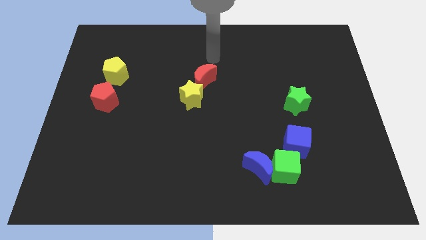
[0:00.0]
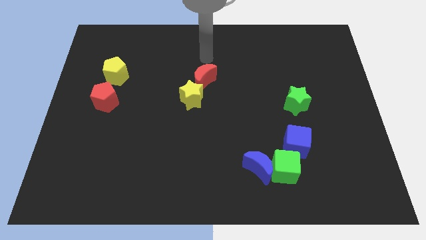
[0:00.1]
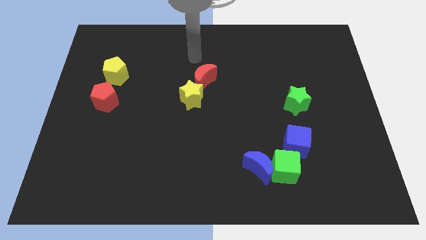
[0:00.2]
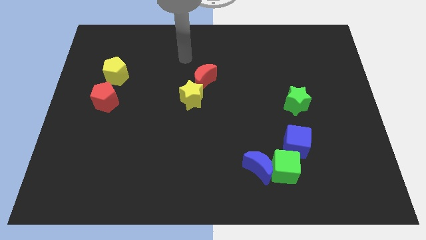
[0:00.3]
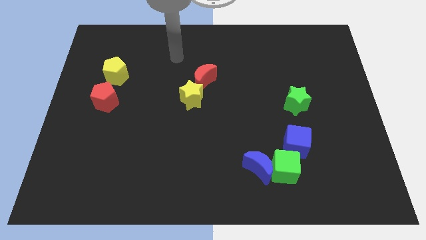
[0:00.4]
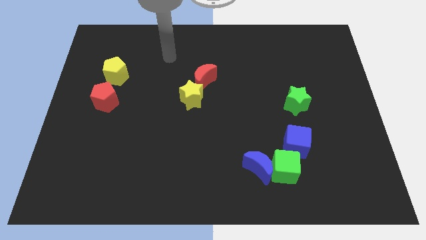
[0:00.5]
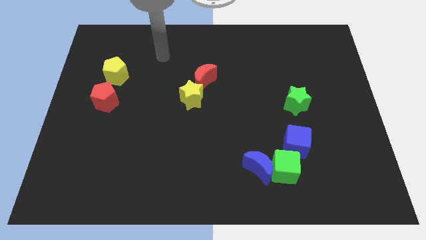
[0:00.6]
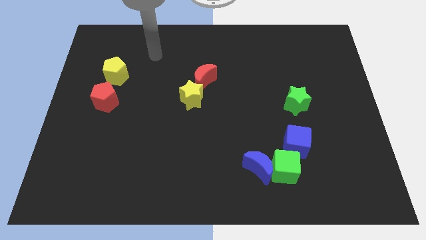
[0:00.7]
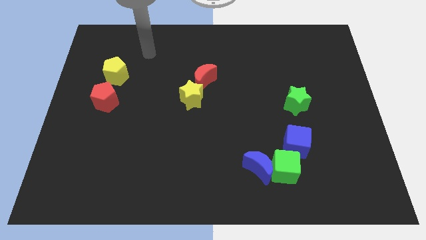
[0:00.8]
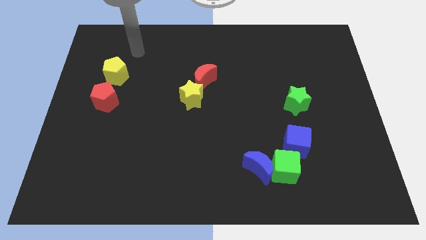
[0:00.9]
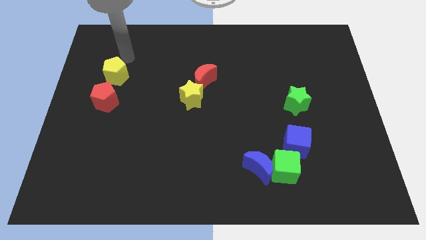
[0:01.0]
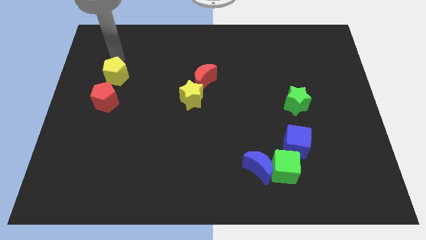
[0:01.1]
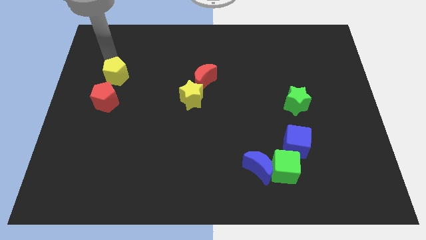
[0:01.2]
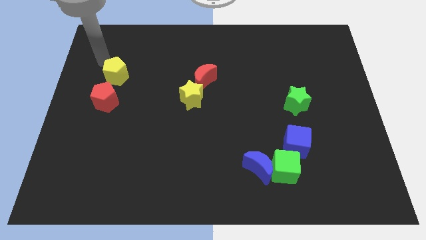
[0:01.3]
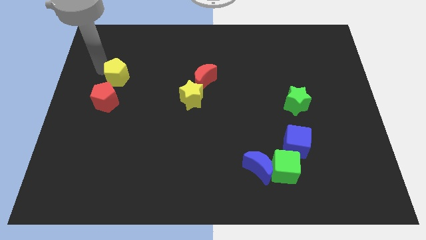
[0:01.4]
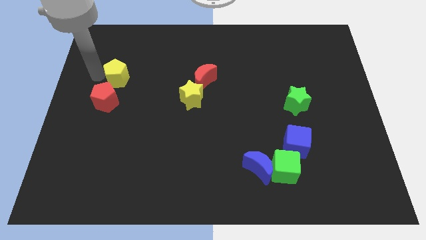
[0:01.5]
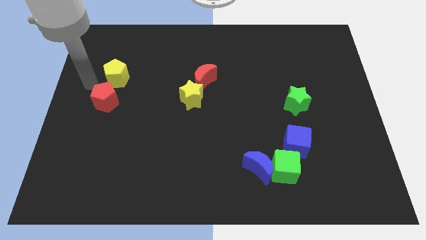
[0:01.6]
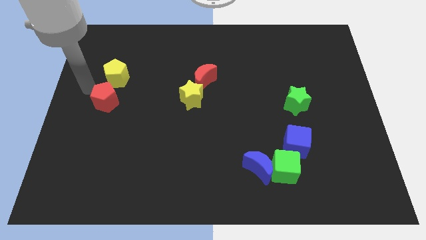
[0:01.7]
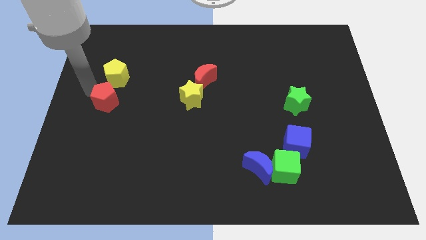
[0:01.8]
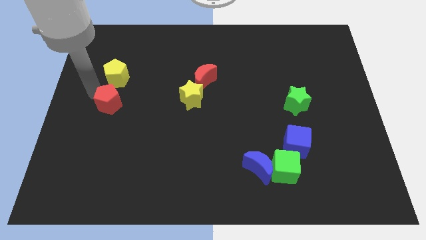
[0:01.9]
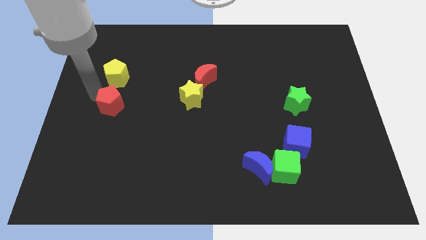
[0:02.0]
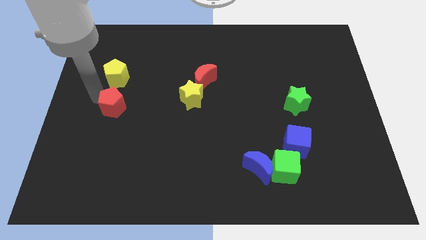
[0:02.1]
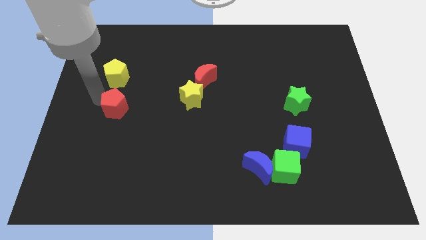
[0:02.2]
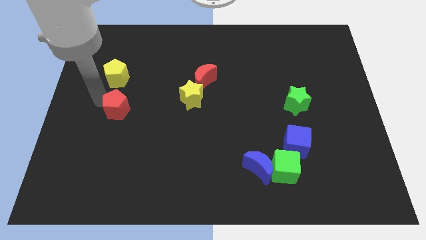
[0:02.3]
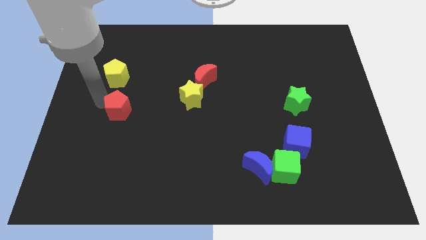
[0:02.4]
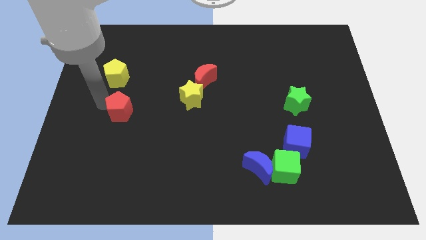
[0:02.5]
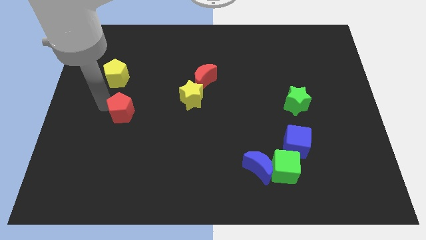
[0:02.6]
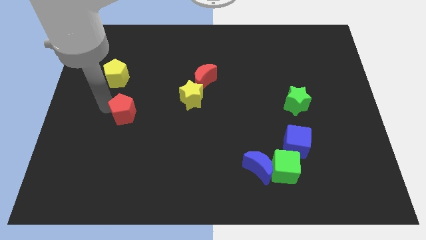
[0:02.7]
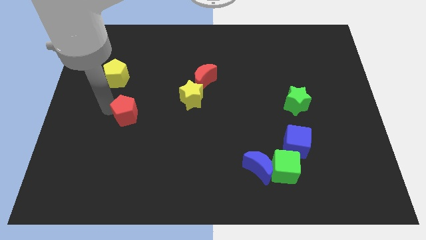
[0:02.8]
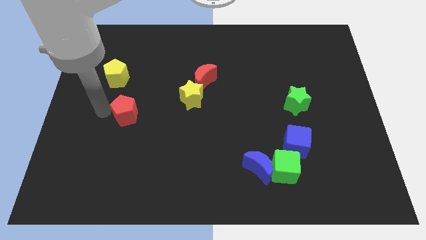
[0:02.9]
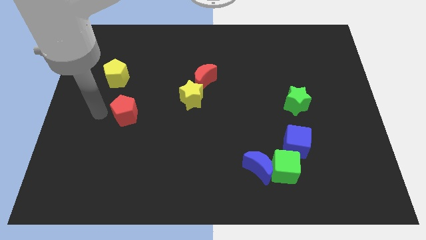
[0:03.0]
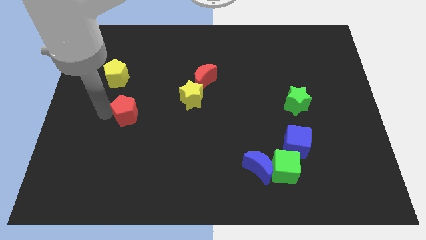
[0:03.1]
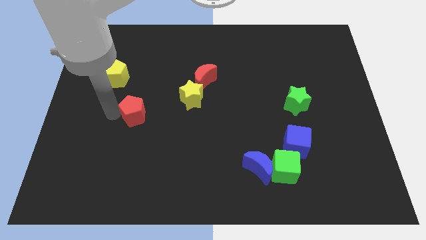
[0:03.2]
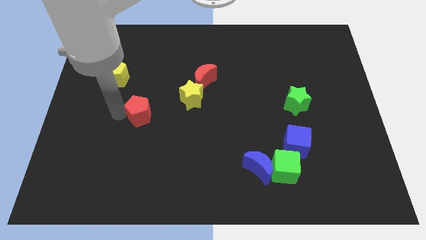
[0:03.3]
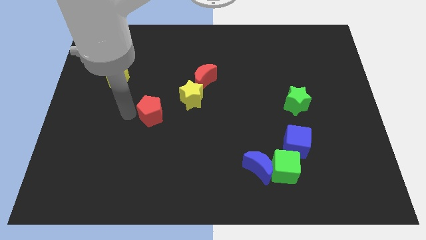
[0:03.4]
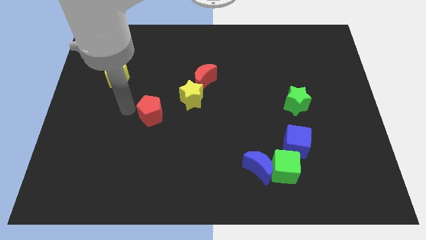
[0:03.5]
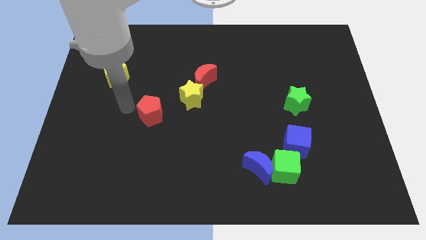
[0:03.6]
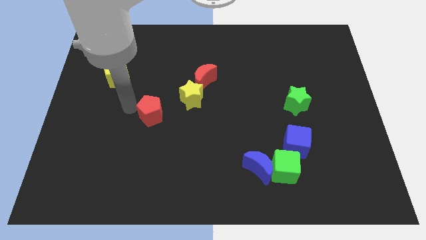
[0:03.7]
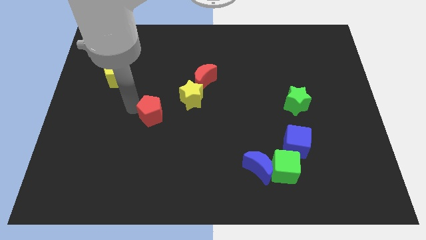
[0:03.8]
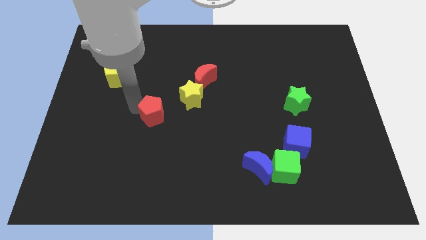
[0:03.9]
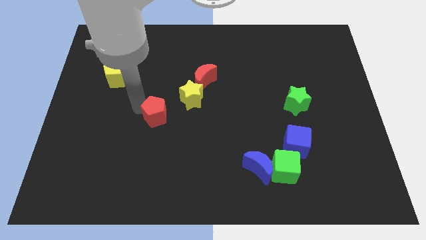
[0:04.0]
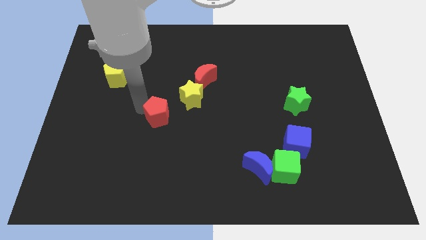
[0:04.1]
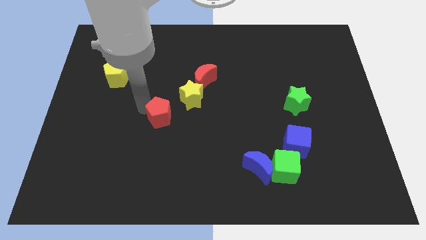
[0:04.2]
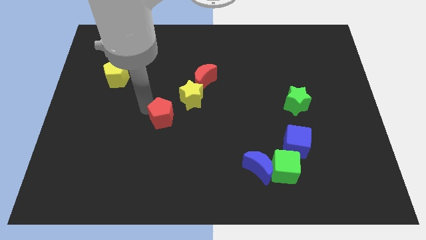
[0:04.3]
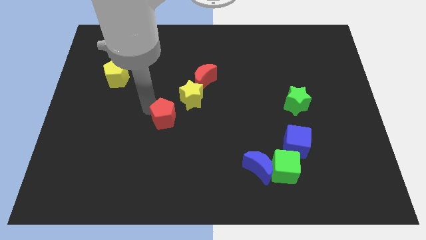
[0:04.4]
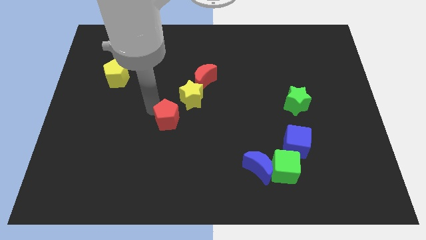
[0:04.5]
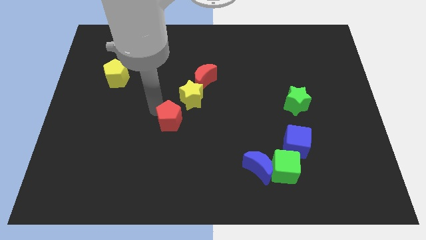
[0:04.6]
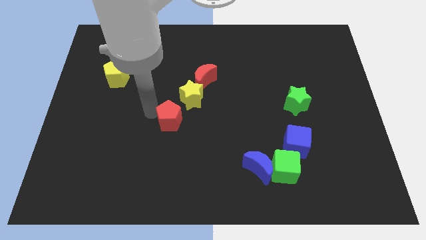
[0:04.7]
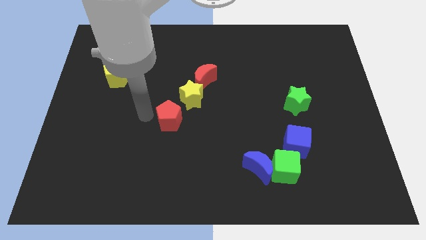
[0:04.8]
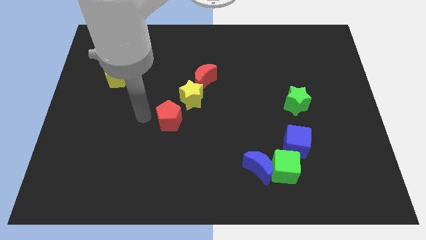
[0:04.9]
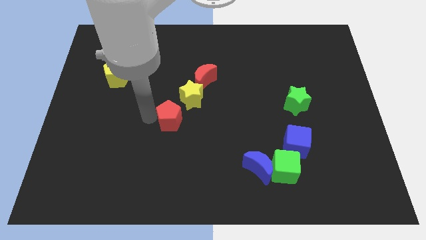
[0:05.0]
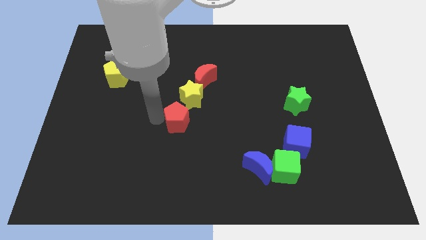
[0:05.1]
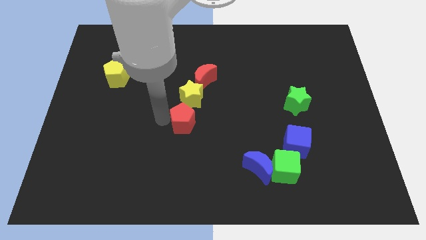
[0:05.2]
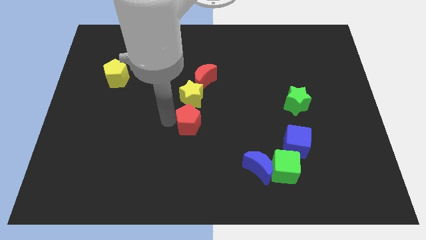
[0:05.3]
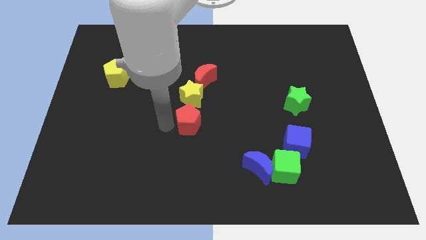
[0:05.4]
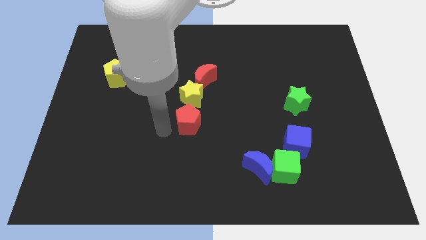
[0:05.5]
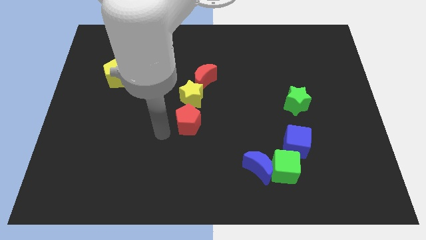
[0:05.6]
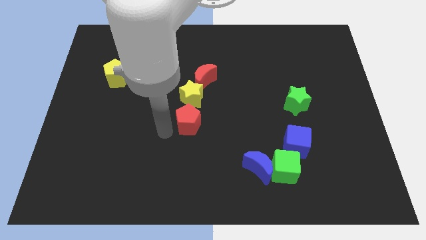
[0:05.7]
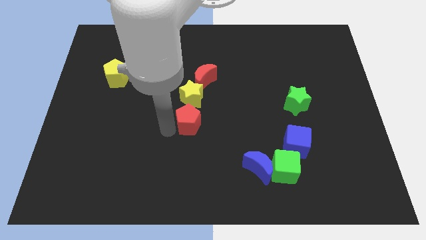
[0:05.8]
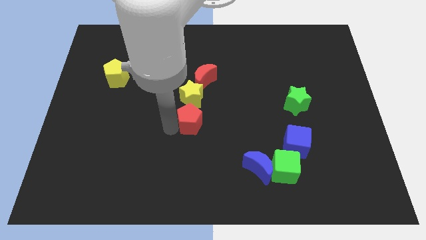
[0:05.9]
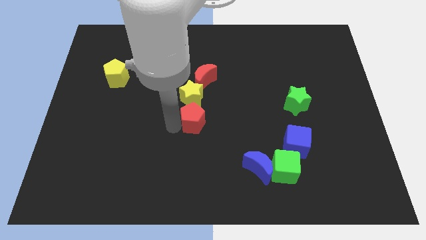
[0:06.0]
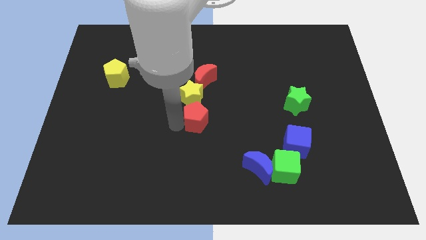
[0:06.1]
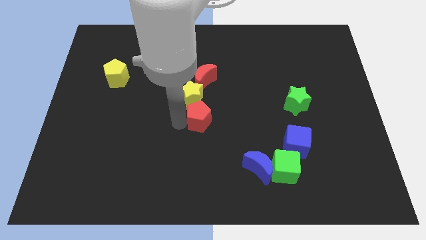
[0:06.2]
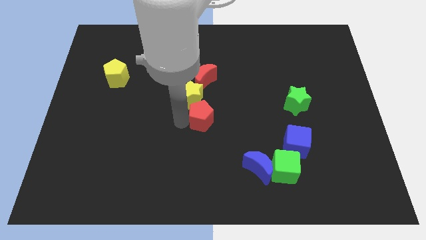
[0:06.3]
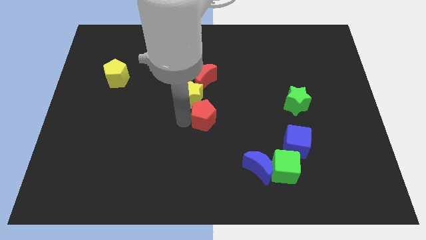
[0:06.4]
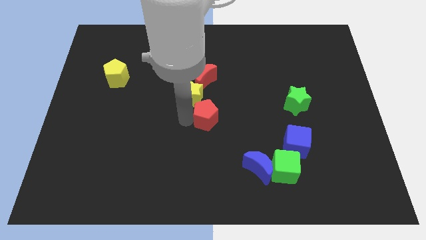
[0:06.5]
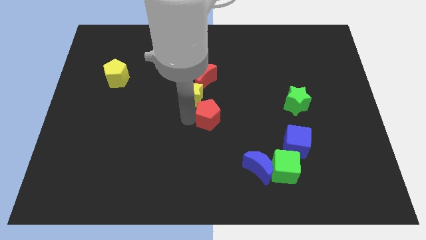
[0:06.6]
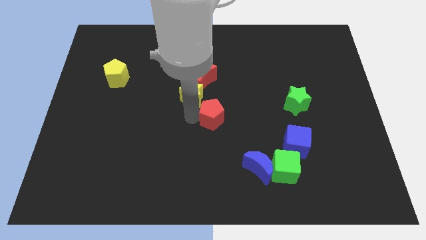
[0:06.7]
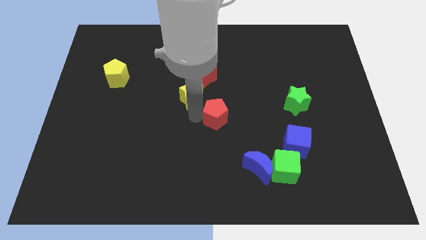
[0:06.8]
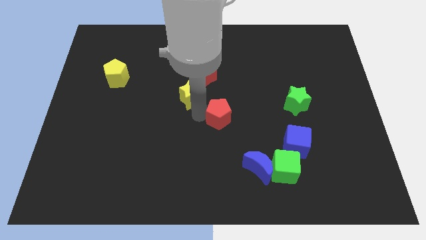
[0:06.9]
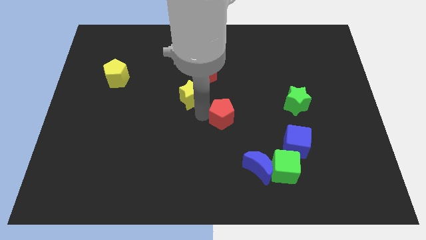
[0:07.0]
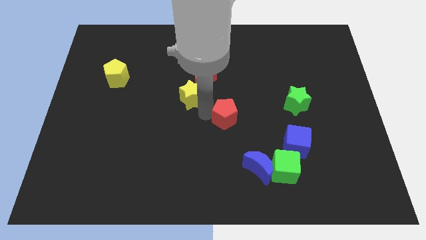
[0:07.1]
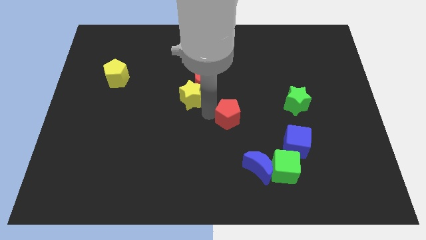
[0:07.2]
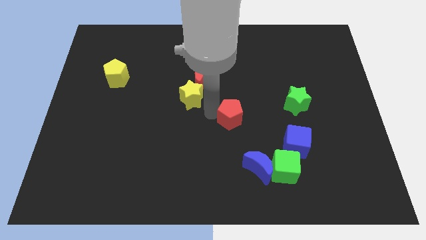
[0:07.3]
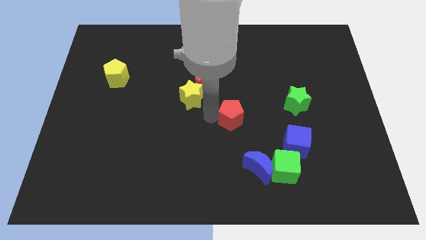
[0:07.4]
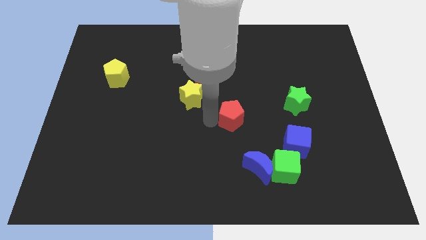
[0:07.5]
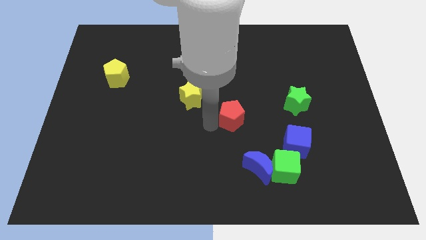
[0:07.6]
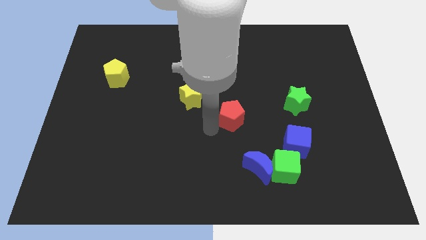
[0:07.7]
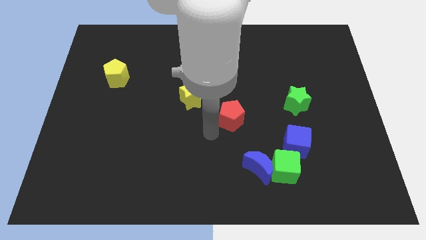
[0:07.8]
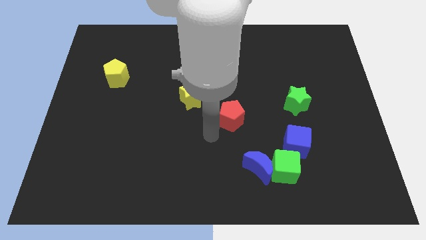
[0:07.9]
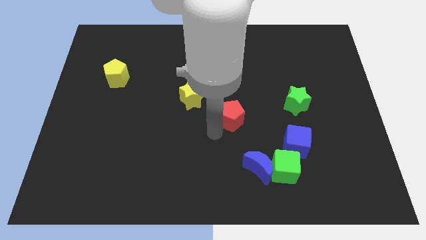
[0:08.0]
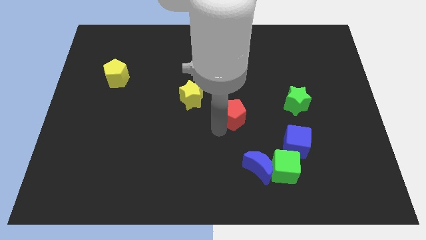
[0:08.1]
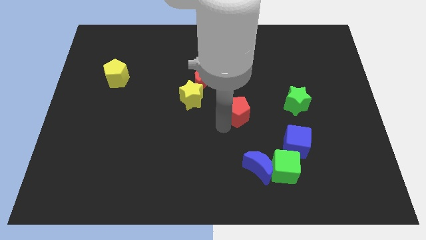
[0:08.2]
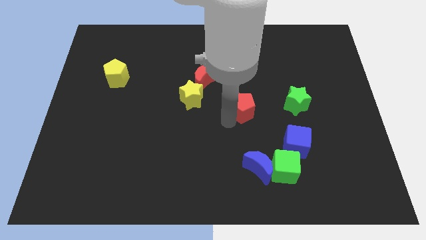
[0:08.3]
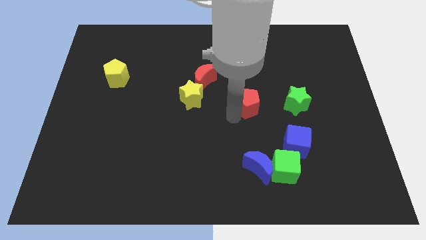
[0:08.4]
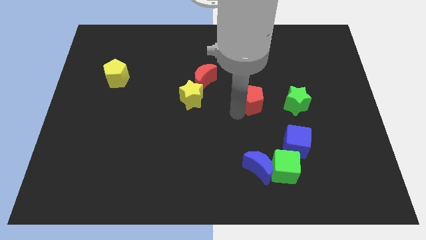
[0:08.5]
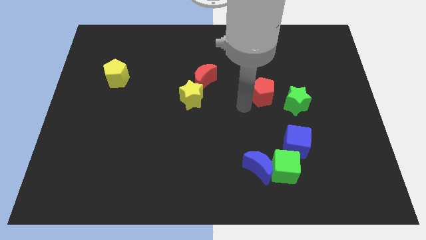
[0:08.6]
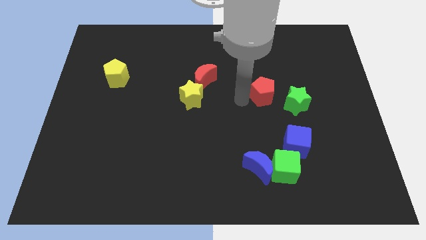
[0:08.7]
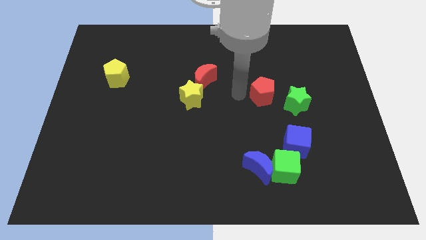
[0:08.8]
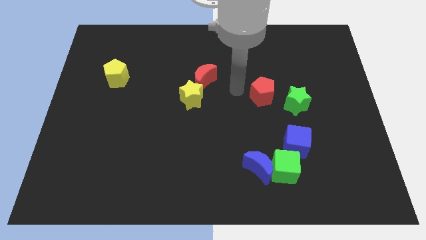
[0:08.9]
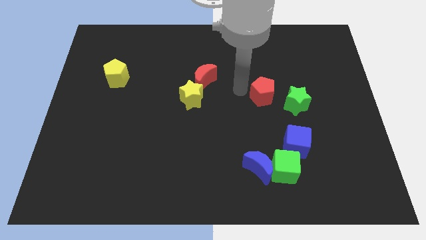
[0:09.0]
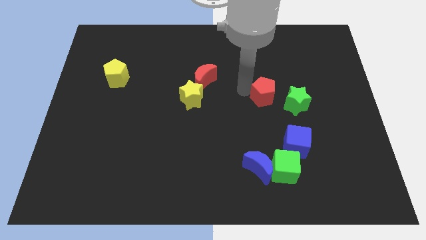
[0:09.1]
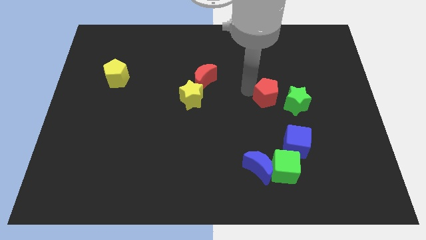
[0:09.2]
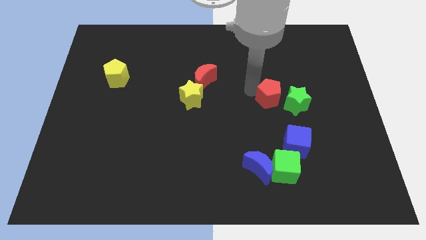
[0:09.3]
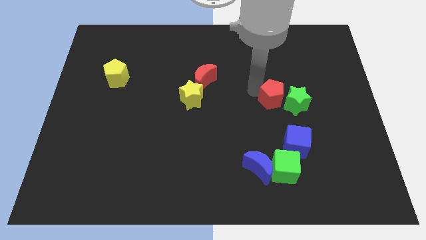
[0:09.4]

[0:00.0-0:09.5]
move the red pentagon towards the green star
